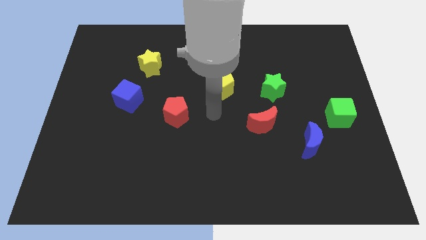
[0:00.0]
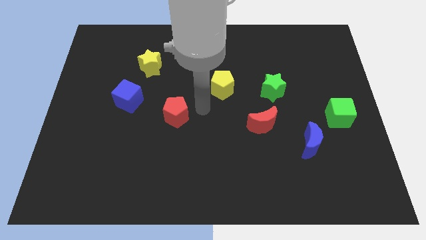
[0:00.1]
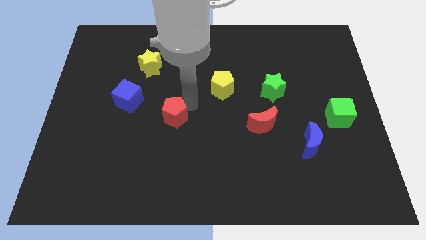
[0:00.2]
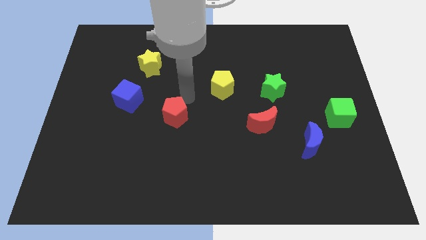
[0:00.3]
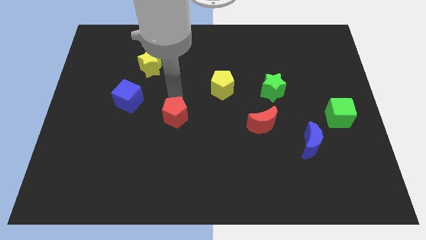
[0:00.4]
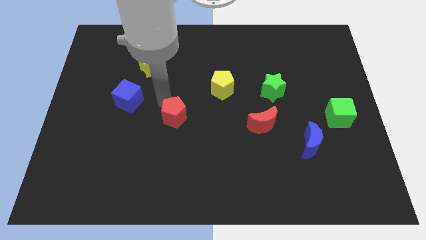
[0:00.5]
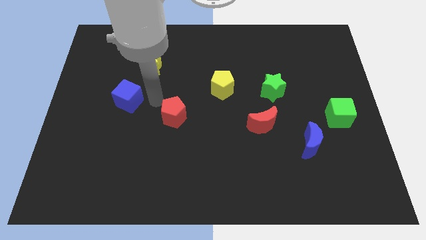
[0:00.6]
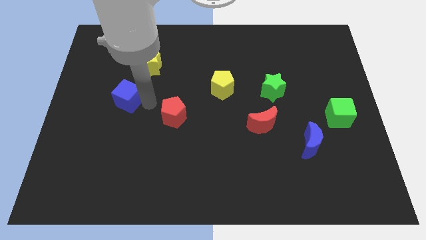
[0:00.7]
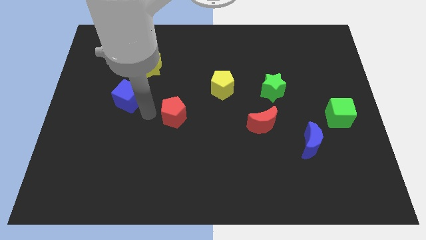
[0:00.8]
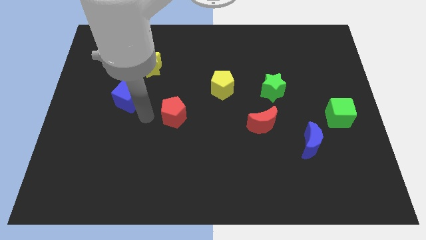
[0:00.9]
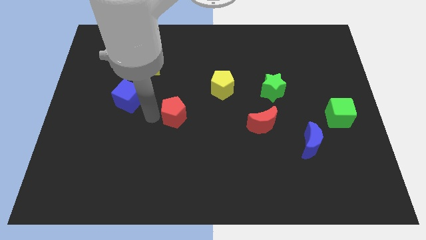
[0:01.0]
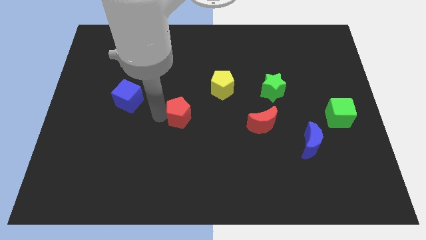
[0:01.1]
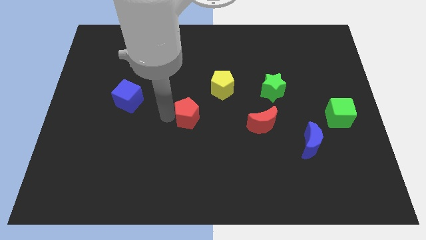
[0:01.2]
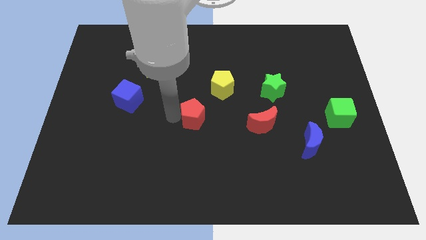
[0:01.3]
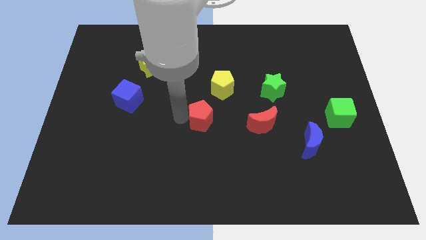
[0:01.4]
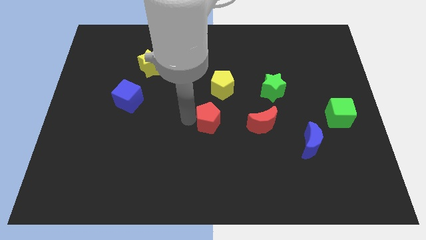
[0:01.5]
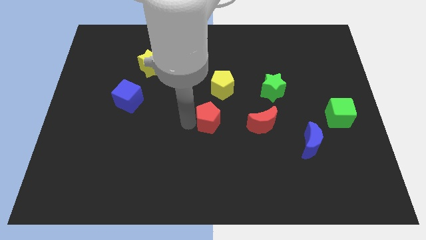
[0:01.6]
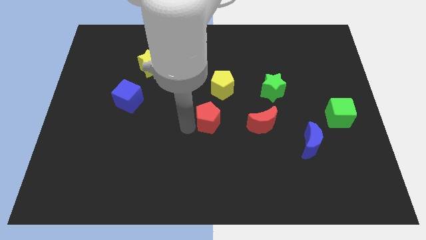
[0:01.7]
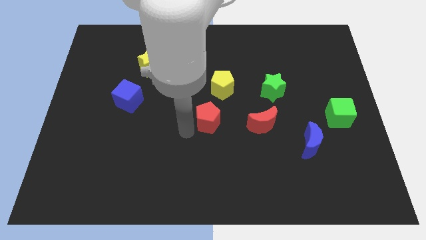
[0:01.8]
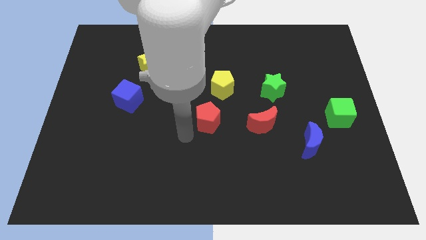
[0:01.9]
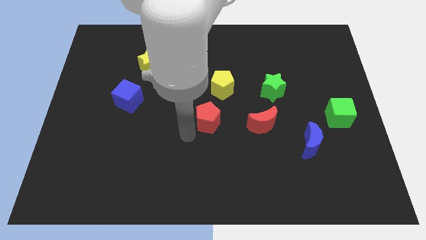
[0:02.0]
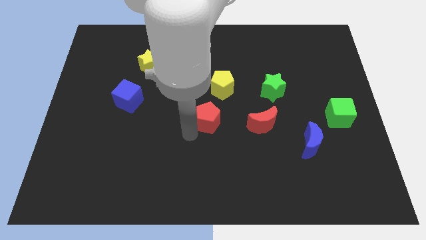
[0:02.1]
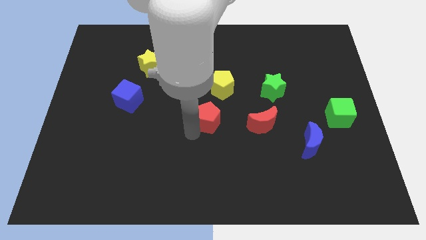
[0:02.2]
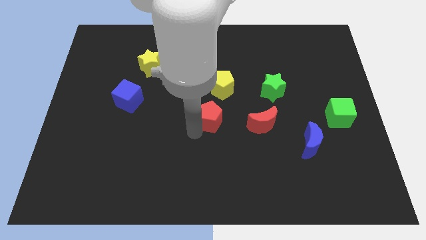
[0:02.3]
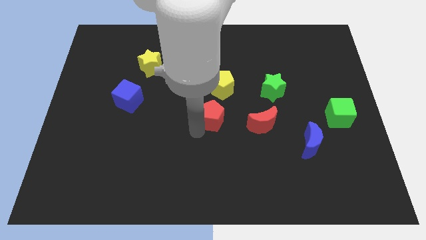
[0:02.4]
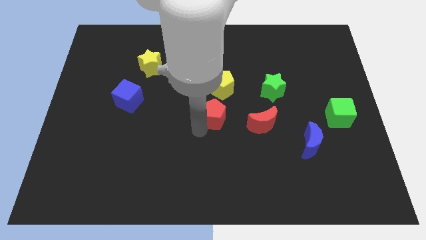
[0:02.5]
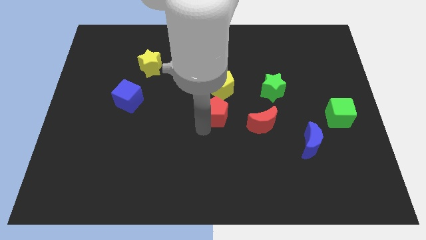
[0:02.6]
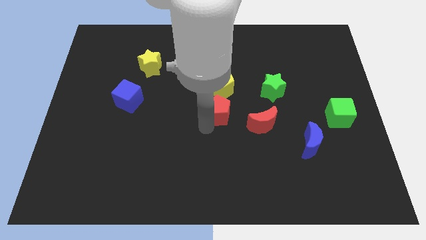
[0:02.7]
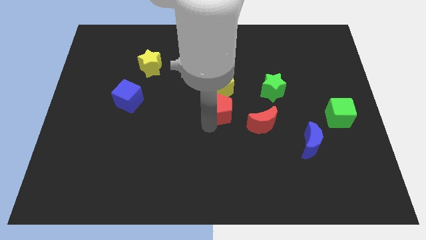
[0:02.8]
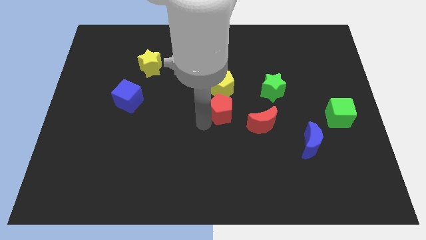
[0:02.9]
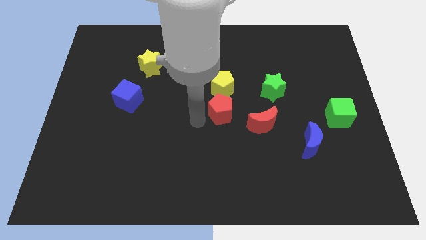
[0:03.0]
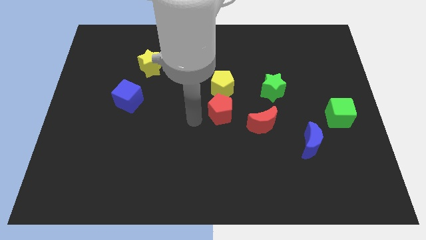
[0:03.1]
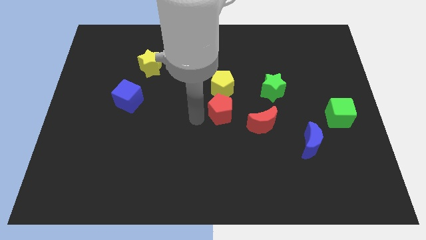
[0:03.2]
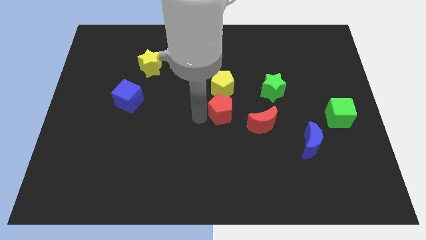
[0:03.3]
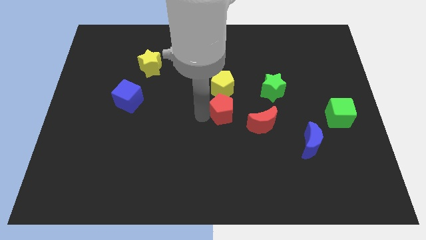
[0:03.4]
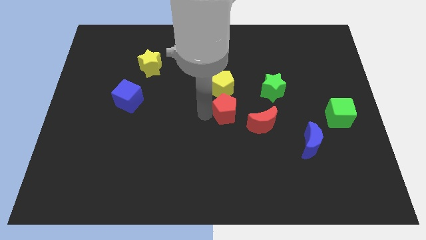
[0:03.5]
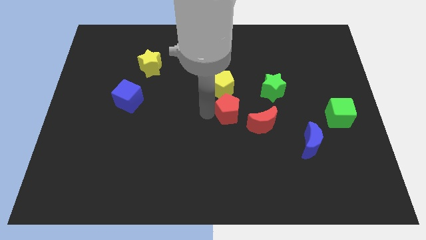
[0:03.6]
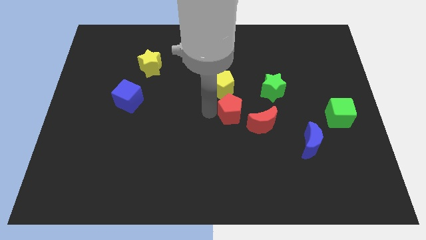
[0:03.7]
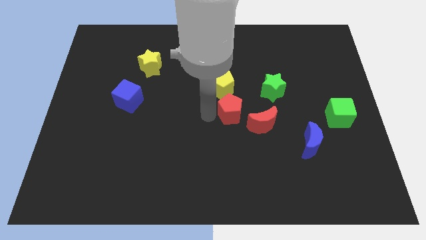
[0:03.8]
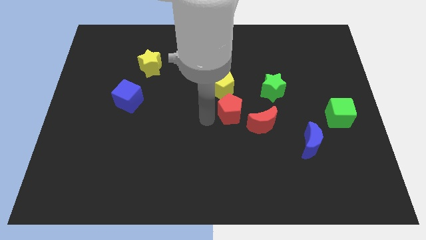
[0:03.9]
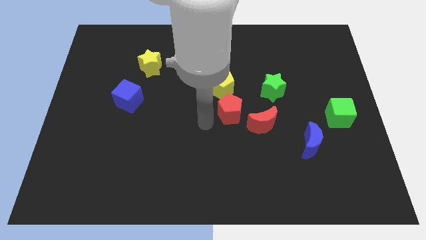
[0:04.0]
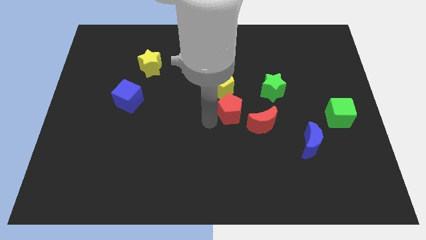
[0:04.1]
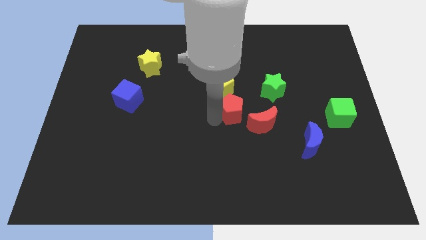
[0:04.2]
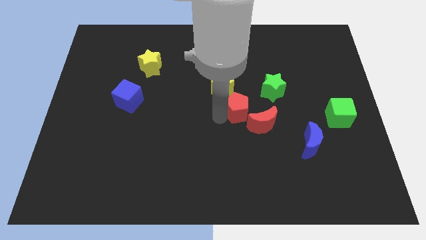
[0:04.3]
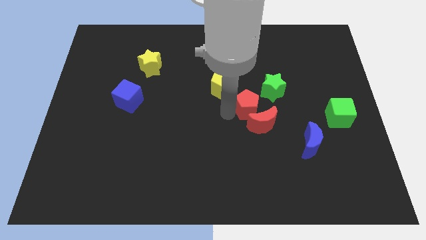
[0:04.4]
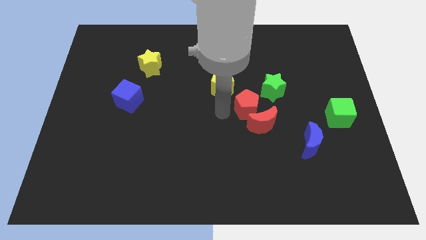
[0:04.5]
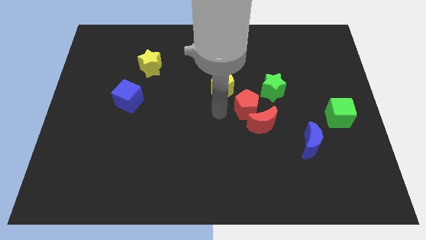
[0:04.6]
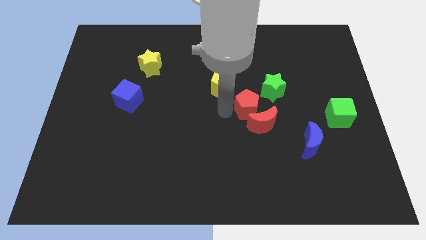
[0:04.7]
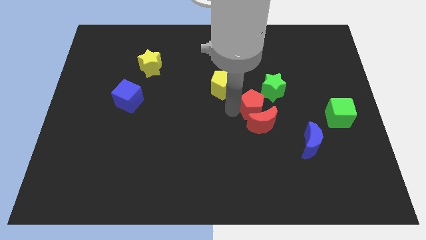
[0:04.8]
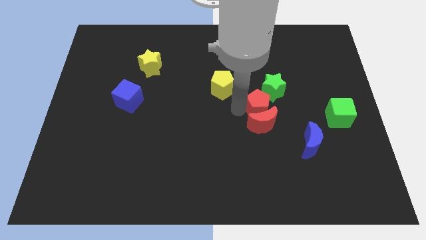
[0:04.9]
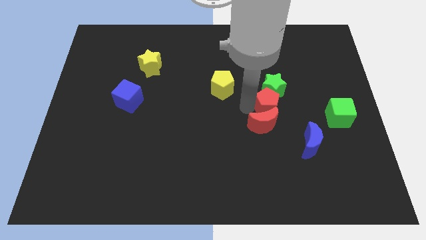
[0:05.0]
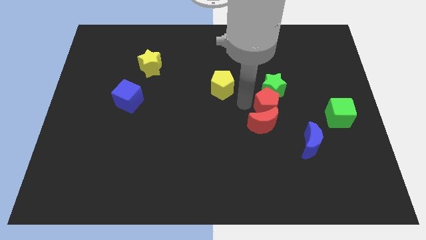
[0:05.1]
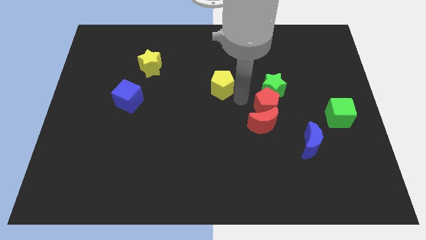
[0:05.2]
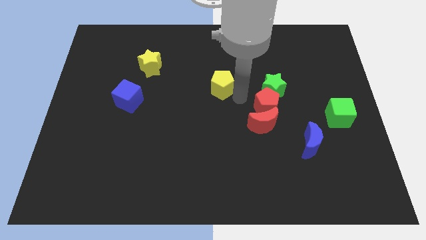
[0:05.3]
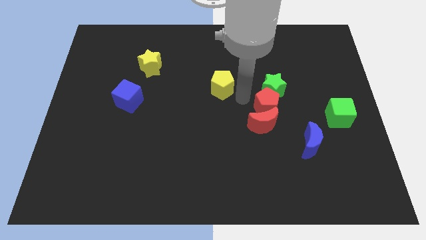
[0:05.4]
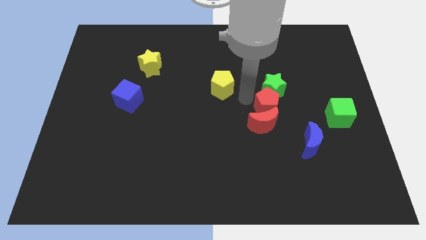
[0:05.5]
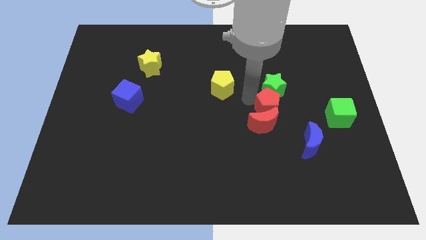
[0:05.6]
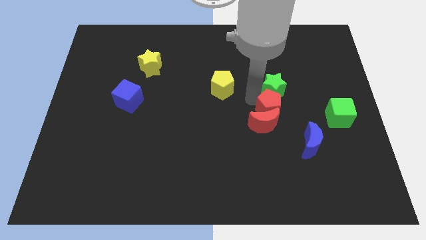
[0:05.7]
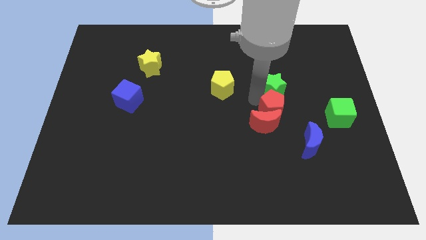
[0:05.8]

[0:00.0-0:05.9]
slide the red pentagon to the left of the green cube

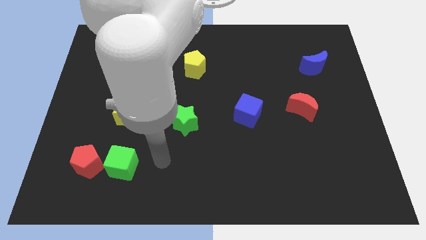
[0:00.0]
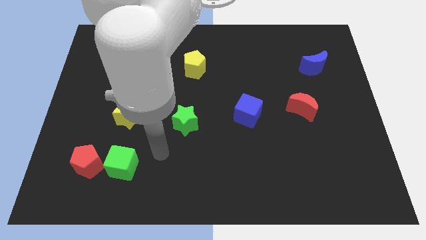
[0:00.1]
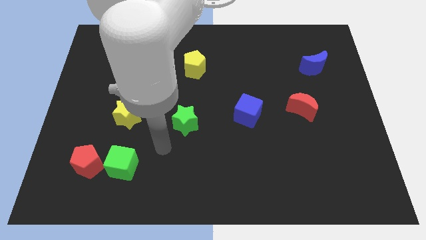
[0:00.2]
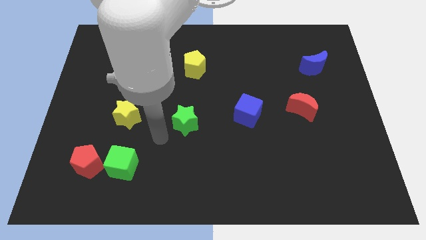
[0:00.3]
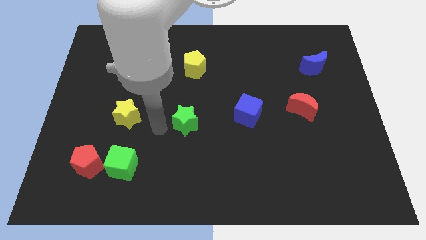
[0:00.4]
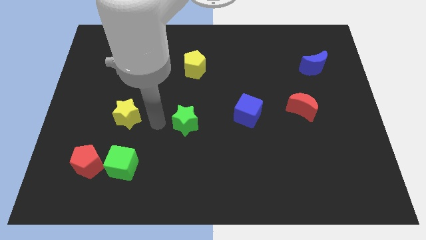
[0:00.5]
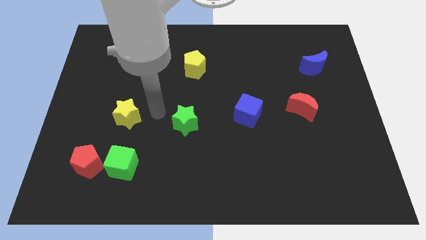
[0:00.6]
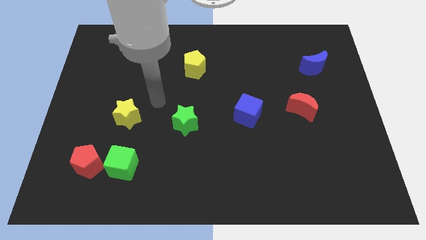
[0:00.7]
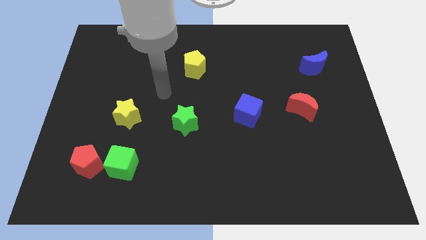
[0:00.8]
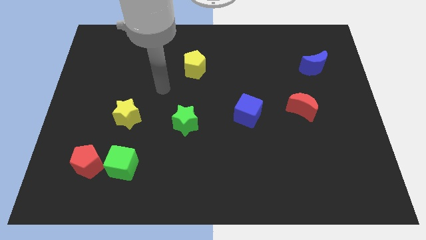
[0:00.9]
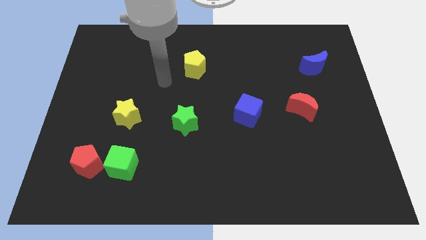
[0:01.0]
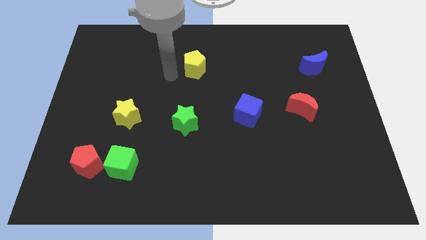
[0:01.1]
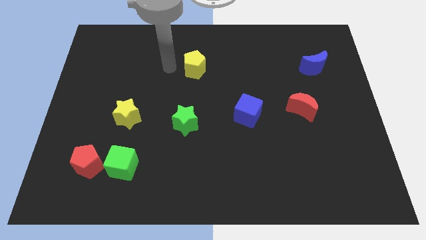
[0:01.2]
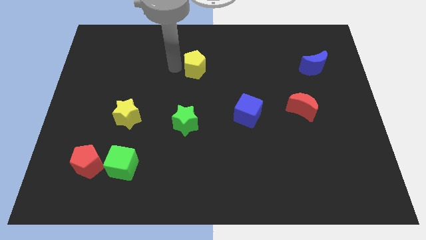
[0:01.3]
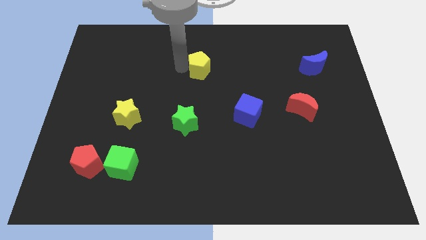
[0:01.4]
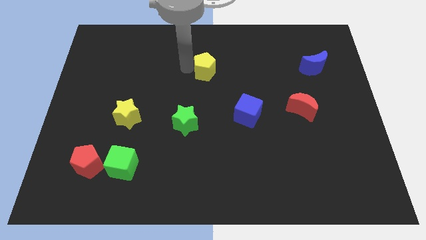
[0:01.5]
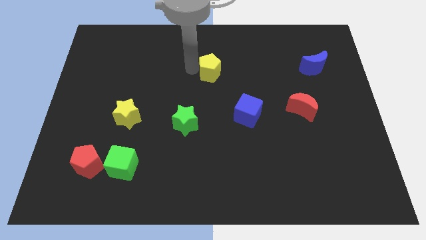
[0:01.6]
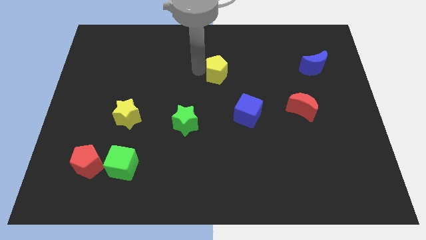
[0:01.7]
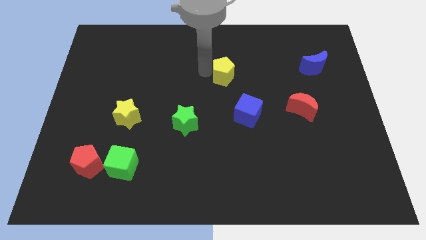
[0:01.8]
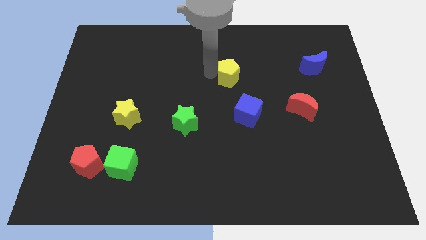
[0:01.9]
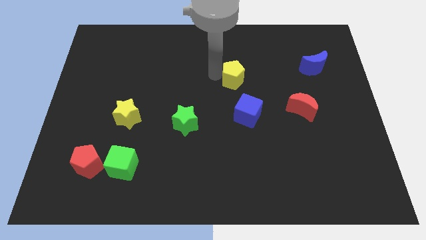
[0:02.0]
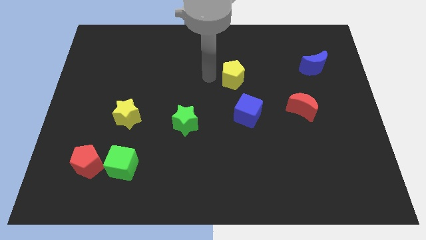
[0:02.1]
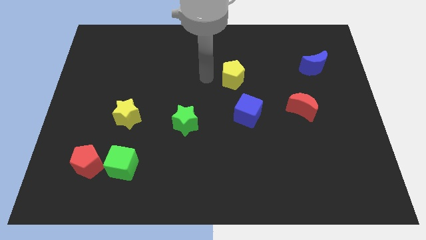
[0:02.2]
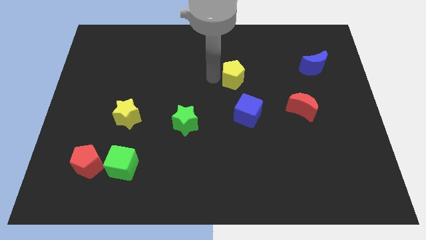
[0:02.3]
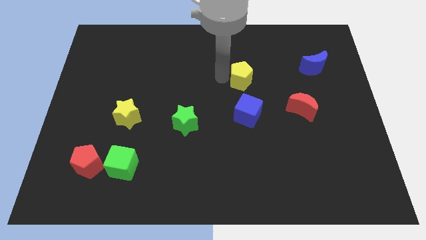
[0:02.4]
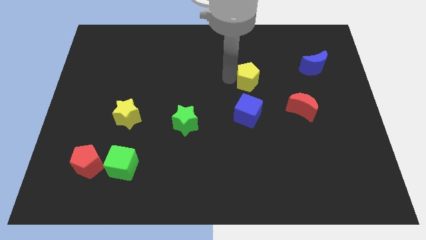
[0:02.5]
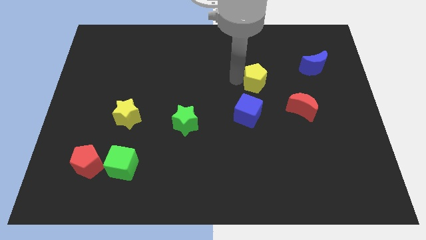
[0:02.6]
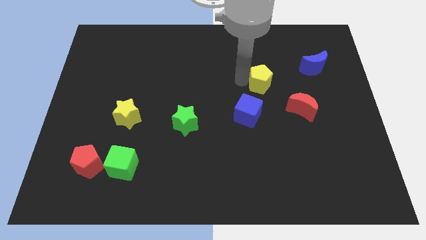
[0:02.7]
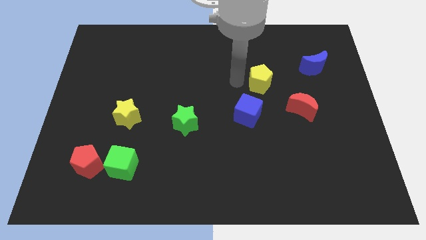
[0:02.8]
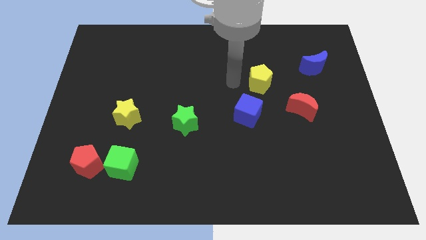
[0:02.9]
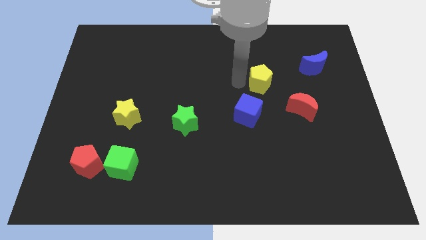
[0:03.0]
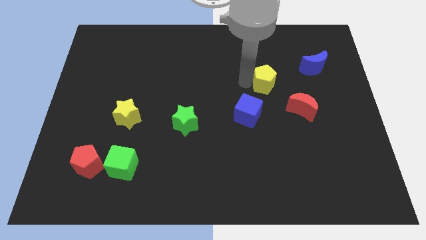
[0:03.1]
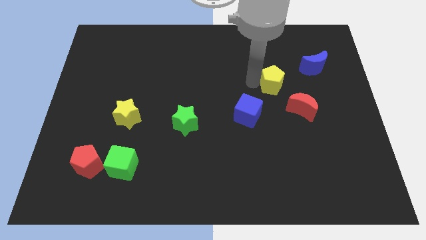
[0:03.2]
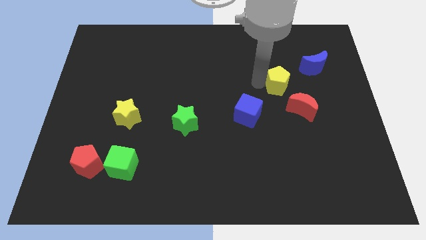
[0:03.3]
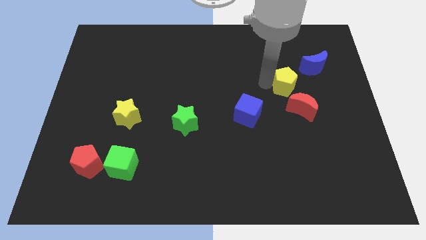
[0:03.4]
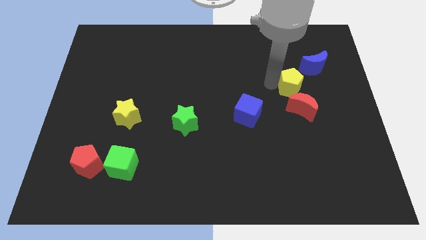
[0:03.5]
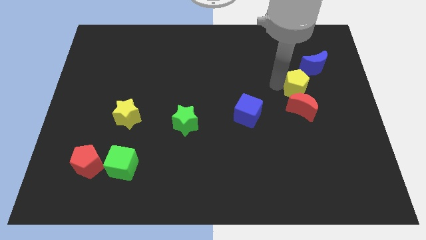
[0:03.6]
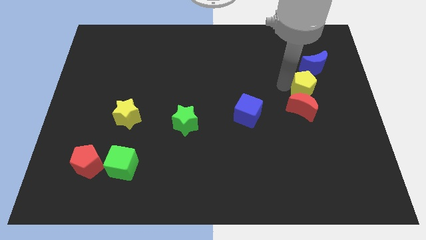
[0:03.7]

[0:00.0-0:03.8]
put the yellow pentagon to the top right side of the red moon
